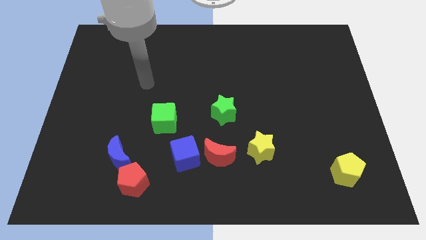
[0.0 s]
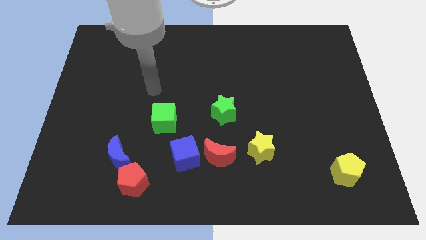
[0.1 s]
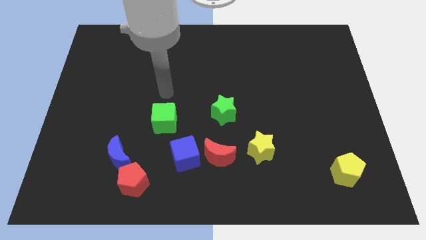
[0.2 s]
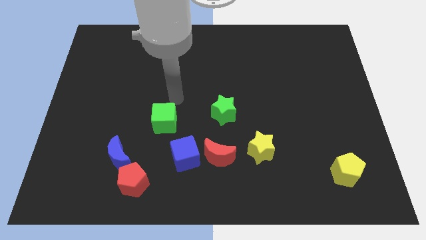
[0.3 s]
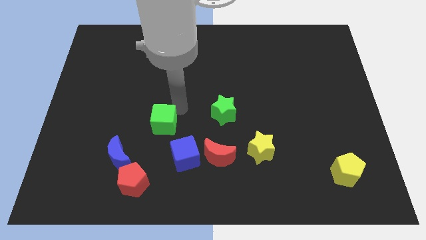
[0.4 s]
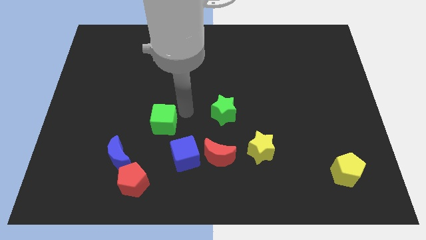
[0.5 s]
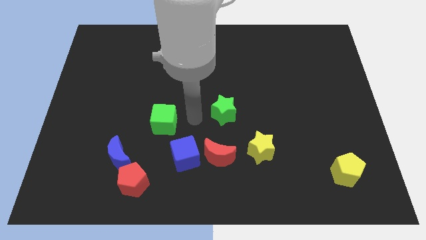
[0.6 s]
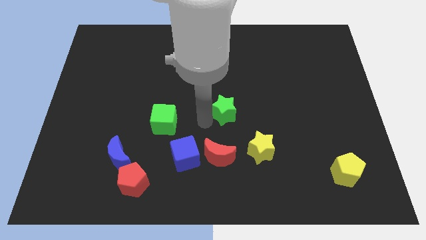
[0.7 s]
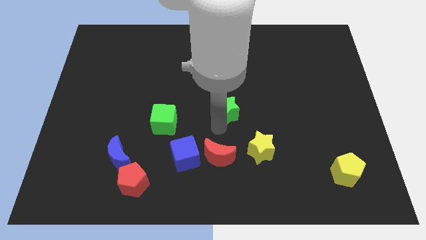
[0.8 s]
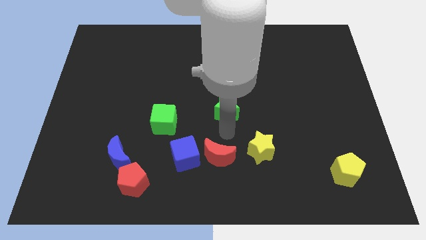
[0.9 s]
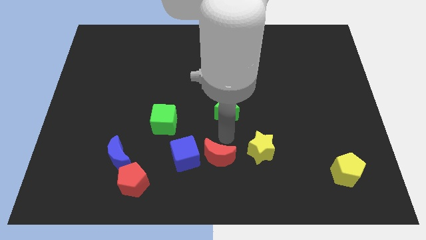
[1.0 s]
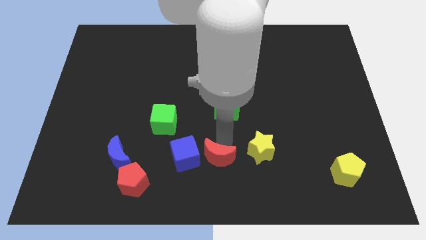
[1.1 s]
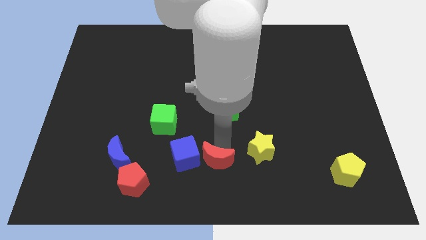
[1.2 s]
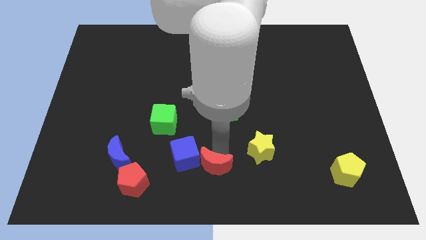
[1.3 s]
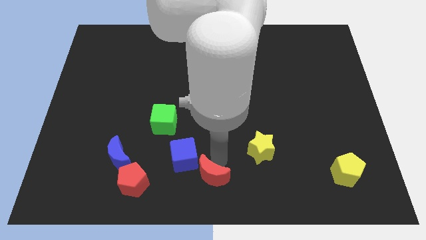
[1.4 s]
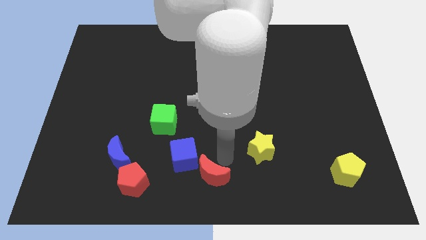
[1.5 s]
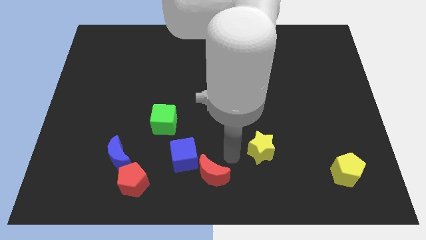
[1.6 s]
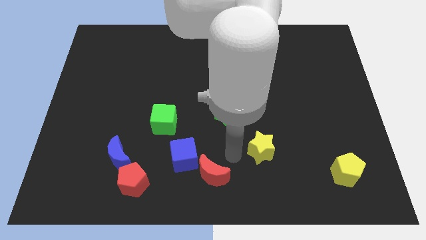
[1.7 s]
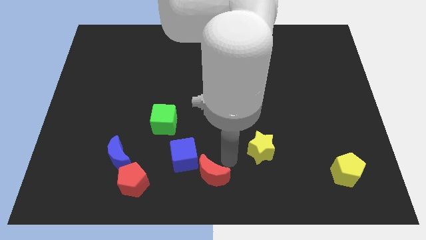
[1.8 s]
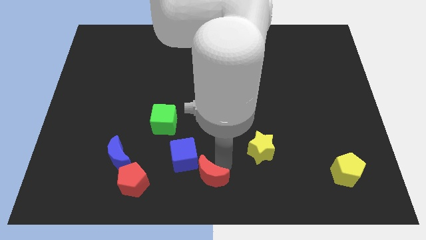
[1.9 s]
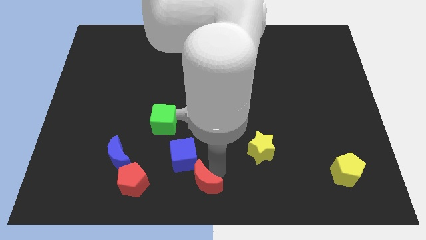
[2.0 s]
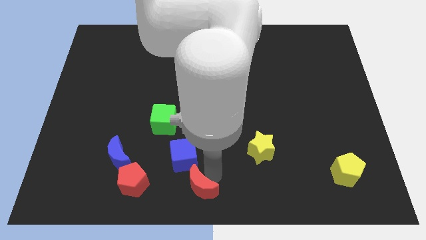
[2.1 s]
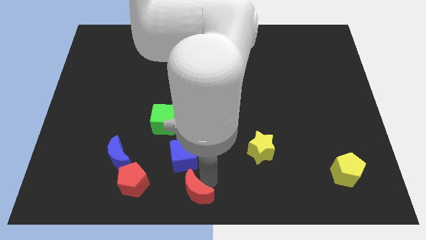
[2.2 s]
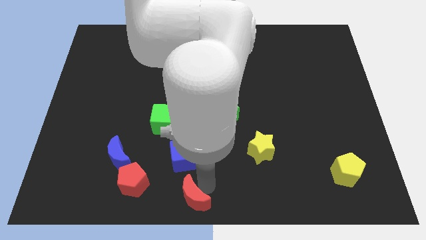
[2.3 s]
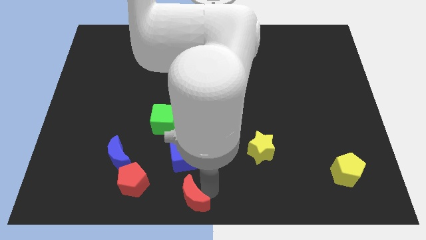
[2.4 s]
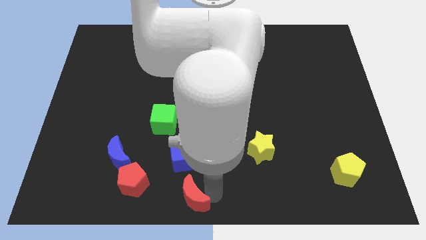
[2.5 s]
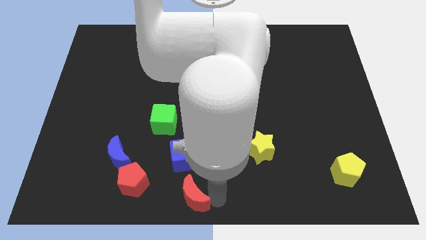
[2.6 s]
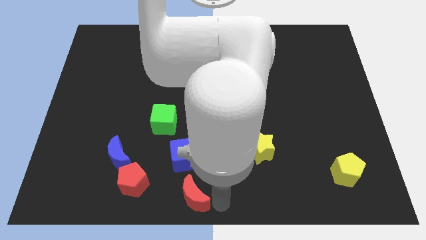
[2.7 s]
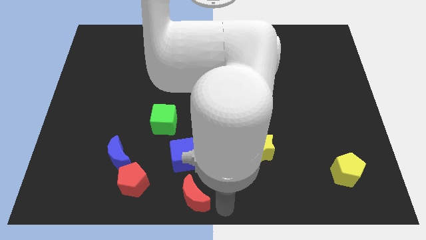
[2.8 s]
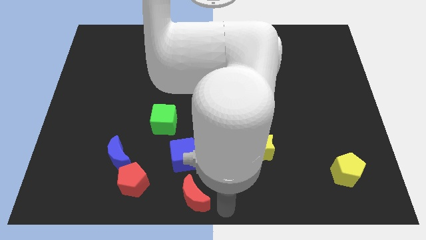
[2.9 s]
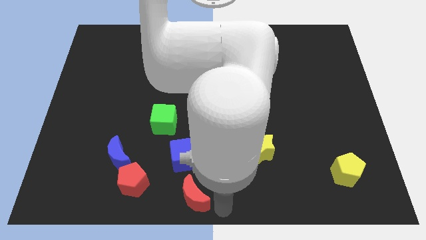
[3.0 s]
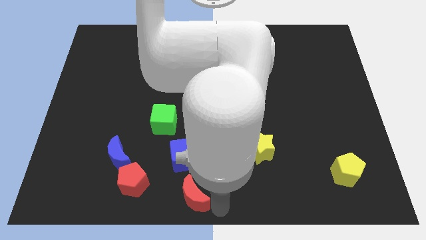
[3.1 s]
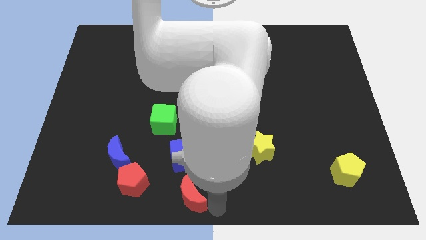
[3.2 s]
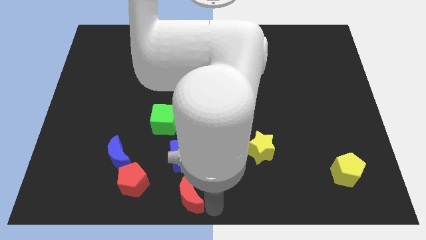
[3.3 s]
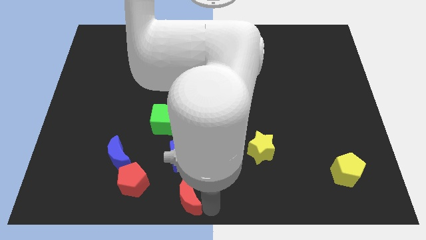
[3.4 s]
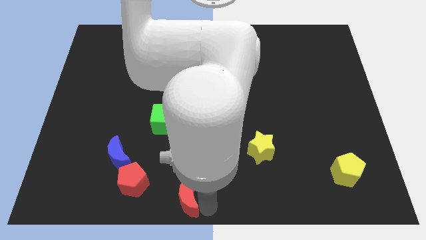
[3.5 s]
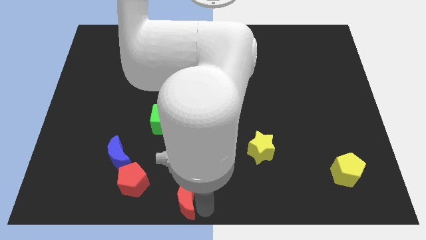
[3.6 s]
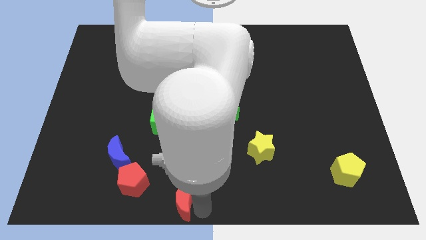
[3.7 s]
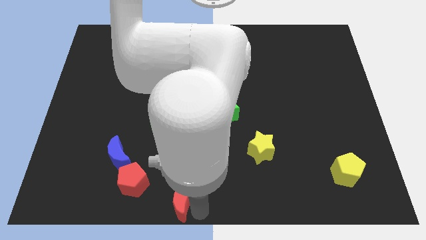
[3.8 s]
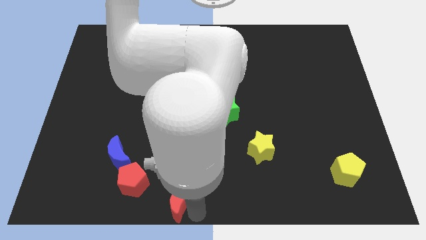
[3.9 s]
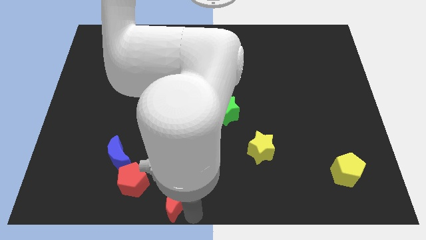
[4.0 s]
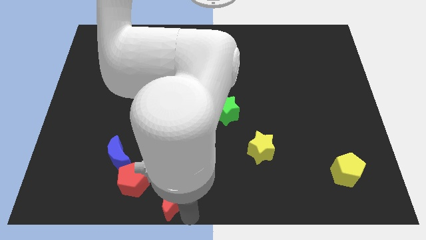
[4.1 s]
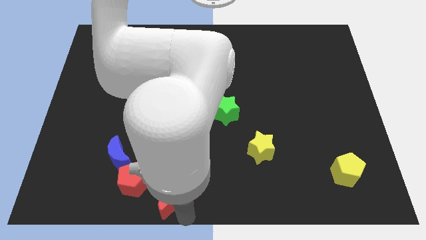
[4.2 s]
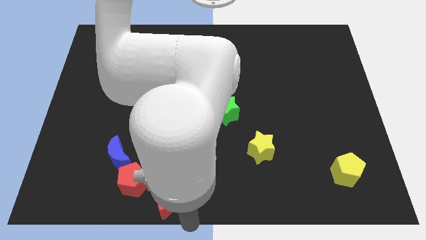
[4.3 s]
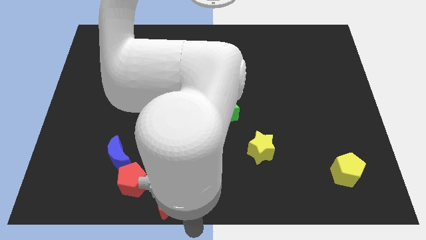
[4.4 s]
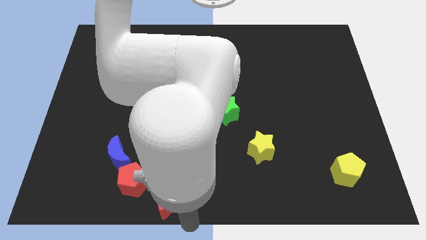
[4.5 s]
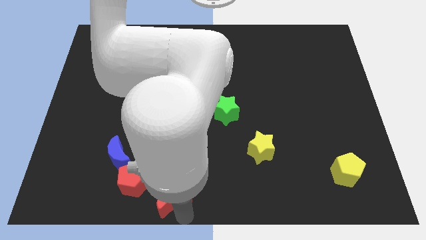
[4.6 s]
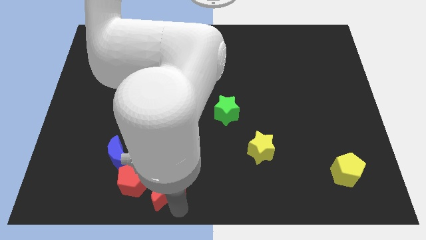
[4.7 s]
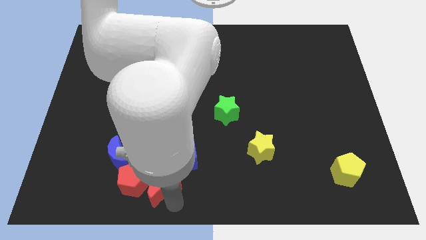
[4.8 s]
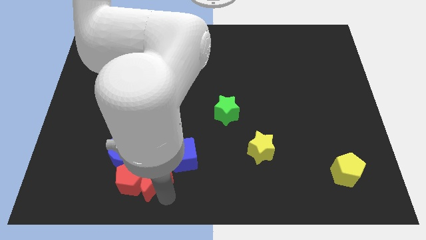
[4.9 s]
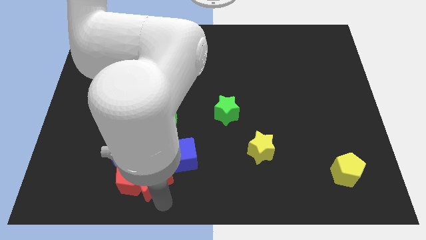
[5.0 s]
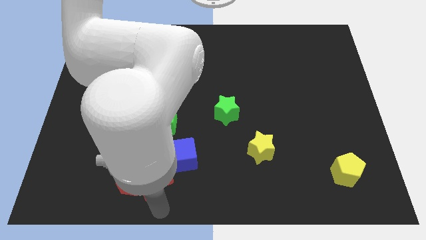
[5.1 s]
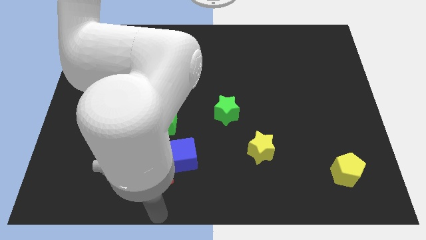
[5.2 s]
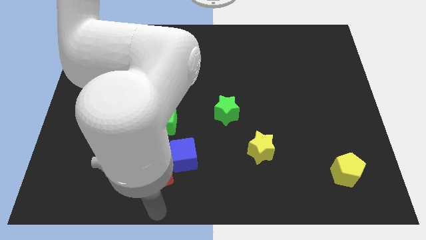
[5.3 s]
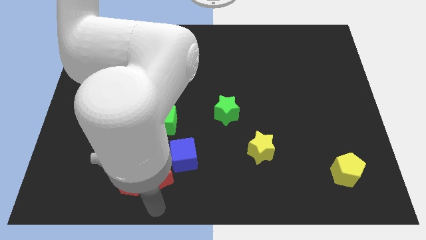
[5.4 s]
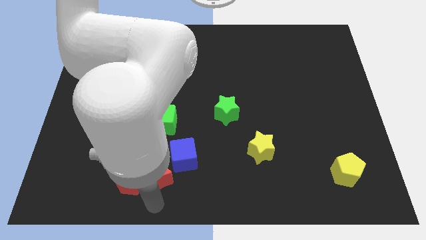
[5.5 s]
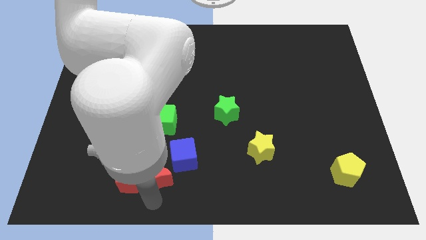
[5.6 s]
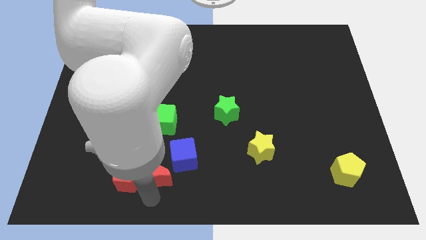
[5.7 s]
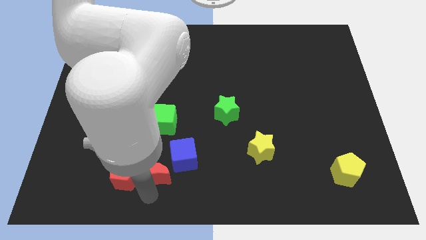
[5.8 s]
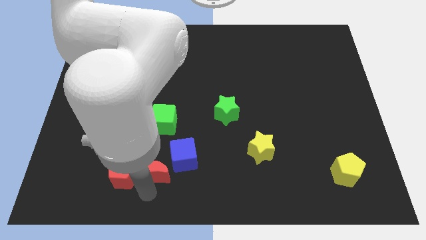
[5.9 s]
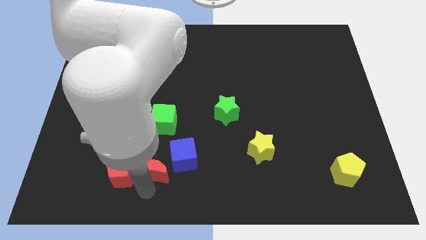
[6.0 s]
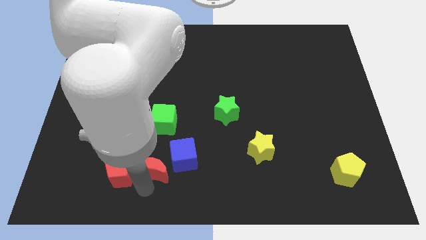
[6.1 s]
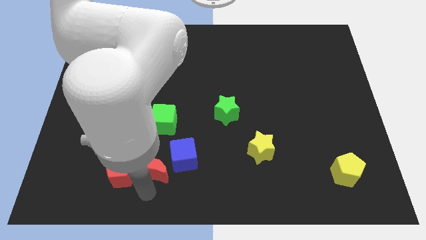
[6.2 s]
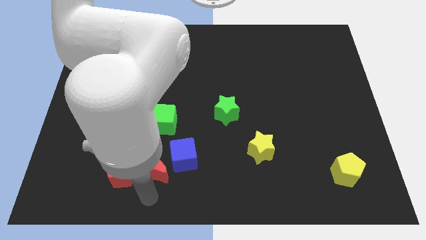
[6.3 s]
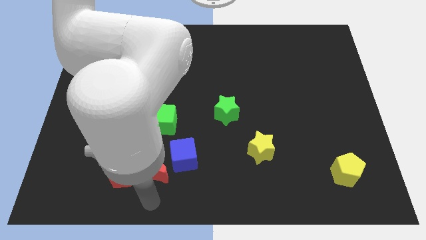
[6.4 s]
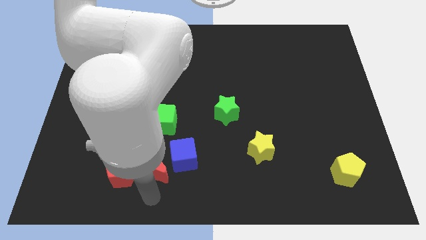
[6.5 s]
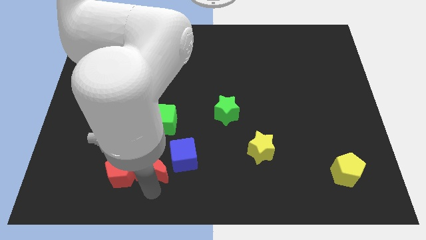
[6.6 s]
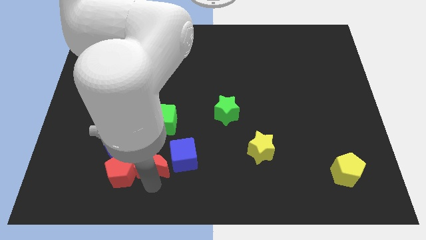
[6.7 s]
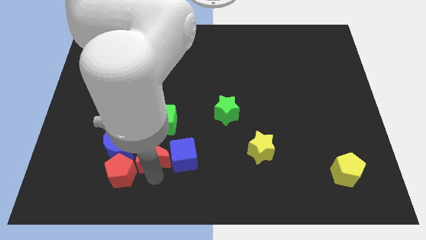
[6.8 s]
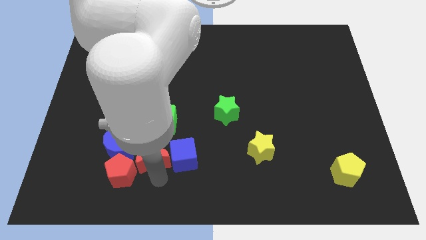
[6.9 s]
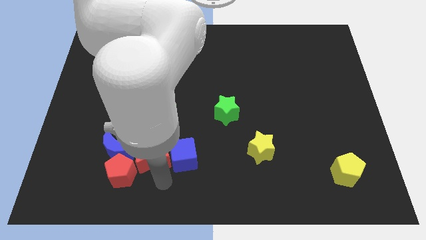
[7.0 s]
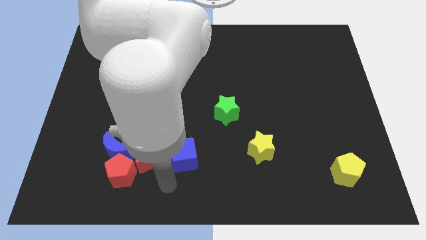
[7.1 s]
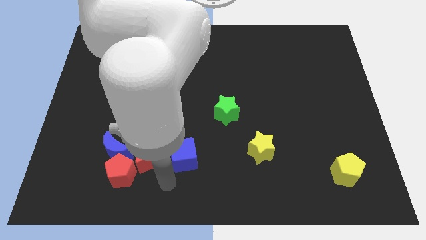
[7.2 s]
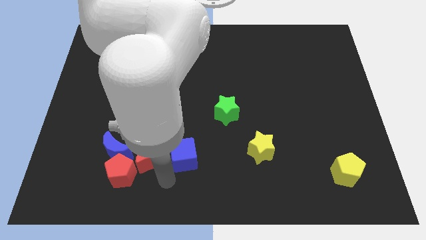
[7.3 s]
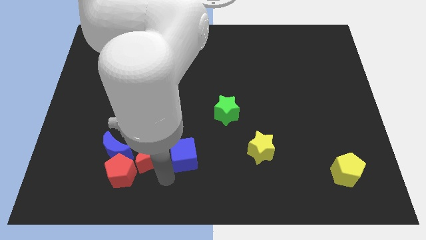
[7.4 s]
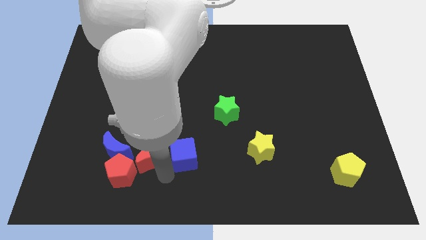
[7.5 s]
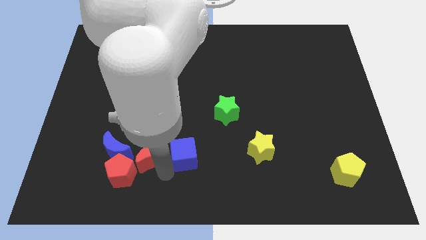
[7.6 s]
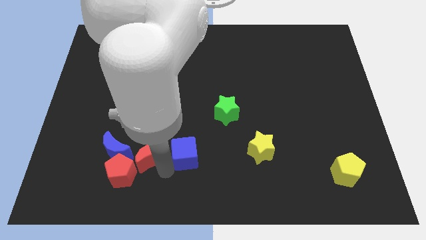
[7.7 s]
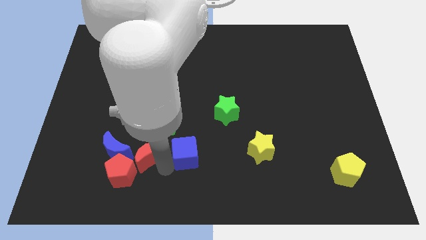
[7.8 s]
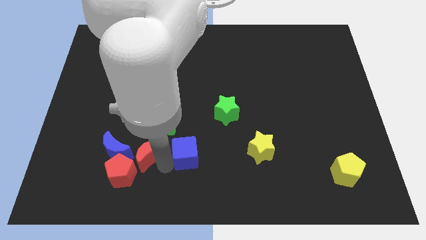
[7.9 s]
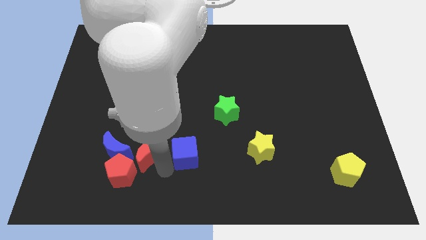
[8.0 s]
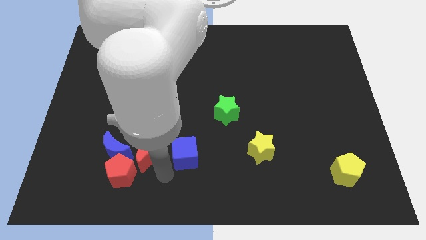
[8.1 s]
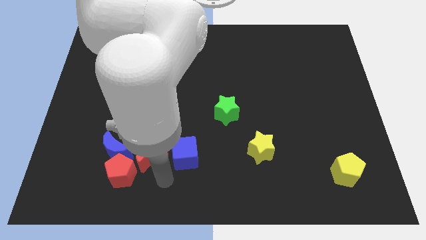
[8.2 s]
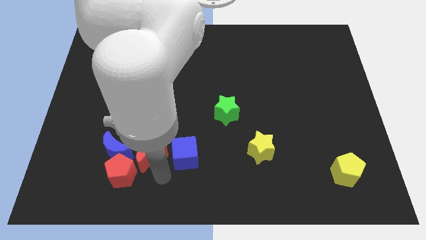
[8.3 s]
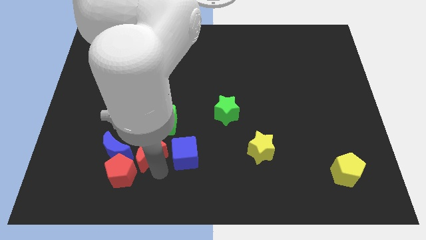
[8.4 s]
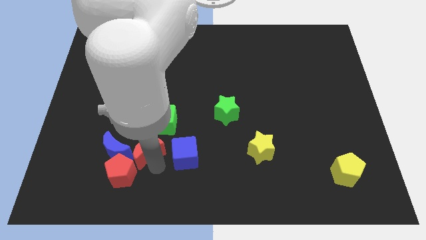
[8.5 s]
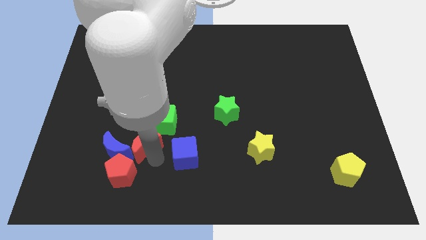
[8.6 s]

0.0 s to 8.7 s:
push the red moon to the blue moon
